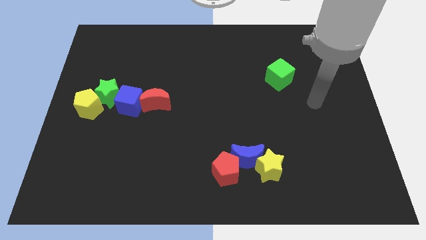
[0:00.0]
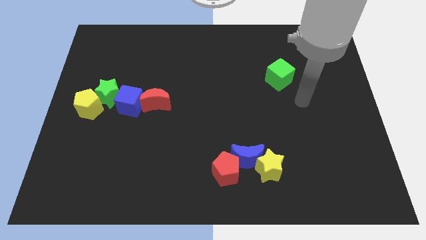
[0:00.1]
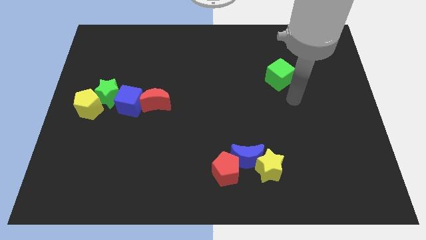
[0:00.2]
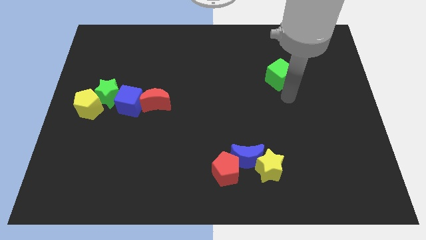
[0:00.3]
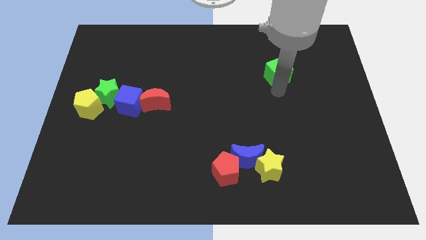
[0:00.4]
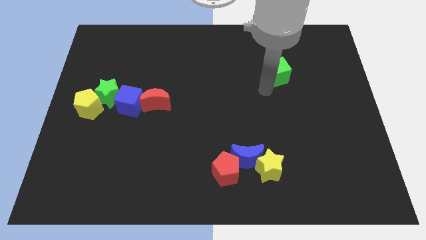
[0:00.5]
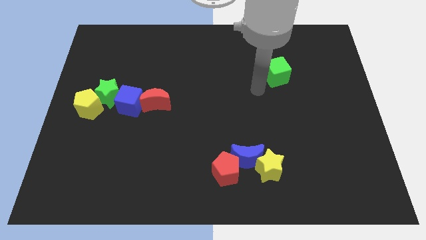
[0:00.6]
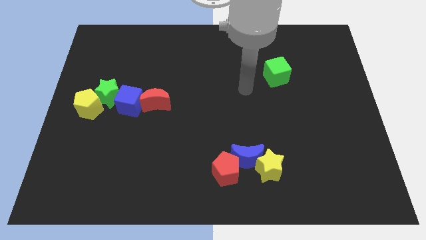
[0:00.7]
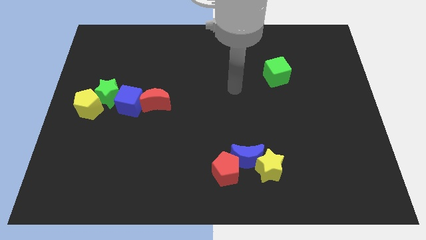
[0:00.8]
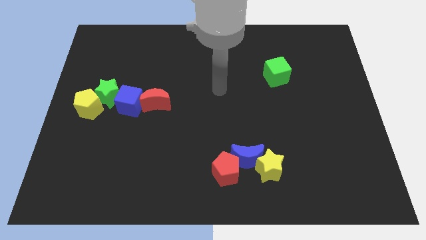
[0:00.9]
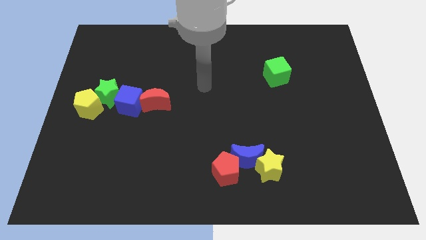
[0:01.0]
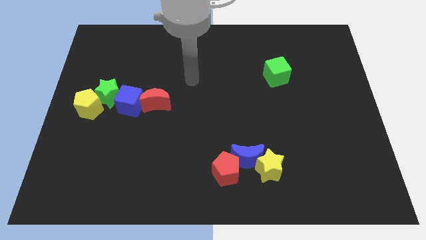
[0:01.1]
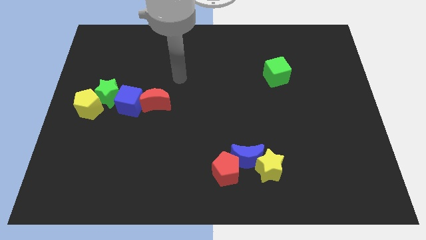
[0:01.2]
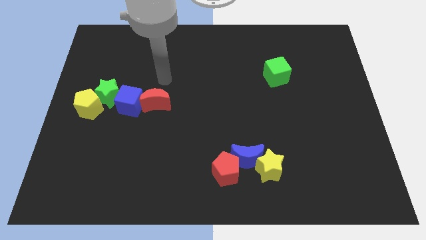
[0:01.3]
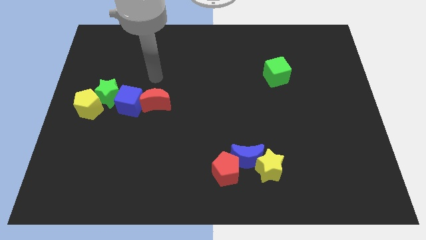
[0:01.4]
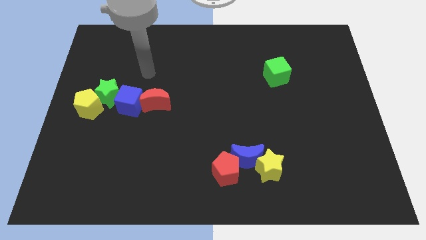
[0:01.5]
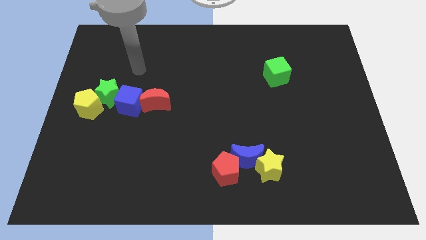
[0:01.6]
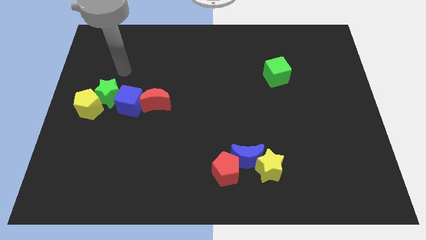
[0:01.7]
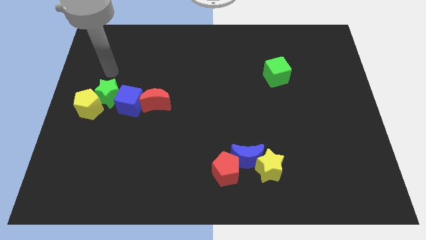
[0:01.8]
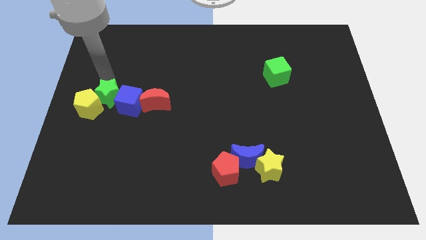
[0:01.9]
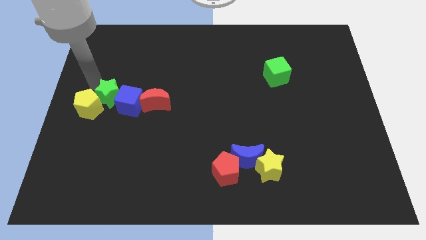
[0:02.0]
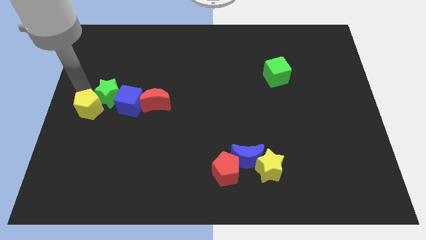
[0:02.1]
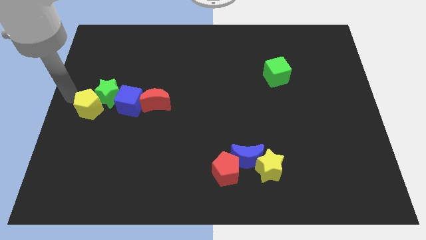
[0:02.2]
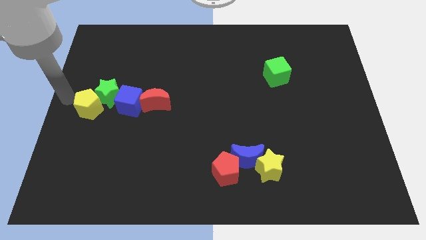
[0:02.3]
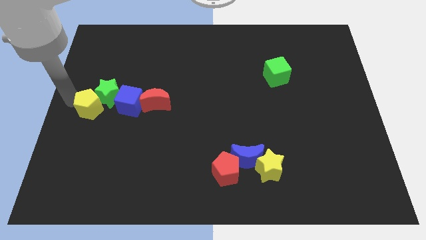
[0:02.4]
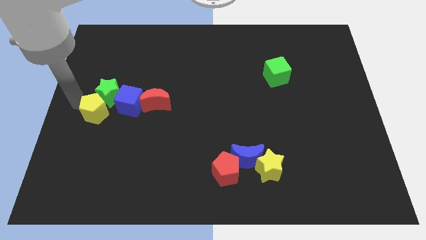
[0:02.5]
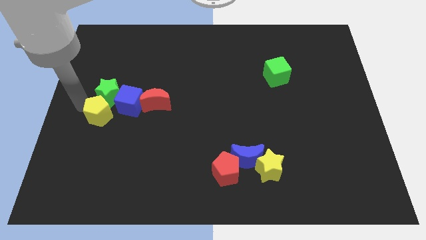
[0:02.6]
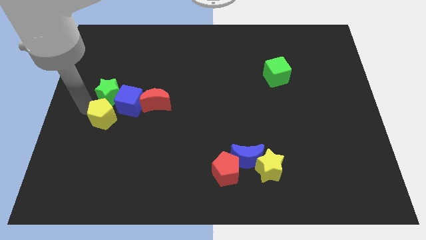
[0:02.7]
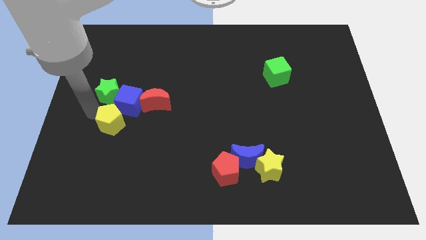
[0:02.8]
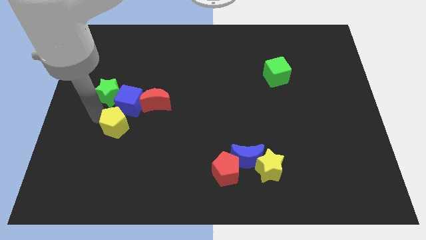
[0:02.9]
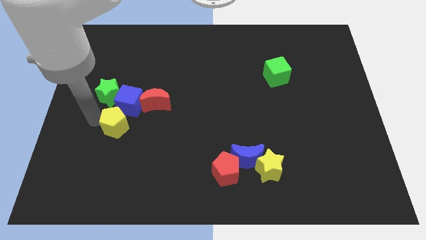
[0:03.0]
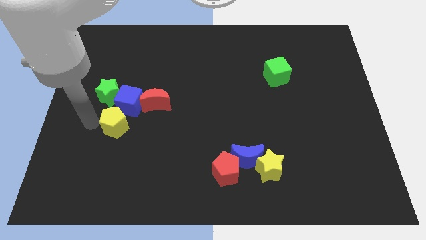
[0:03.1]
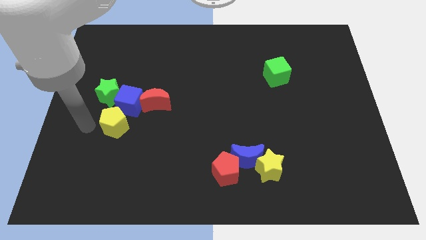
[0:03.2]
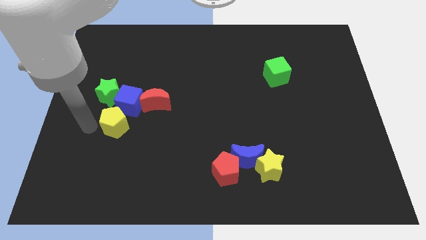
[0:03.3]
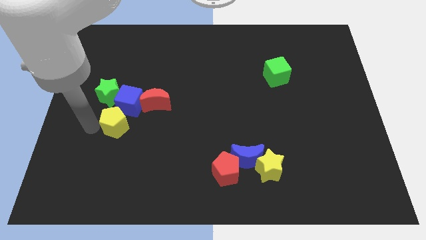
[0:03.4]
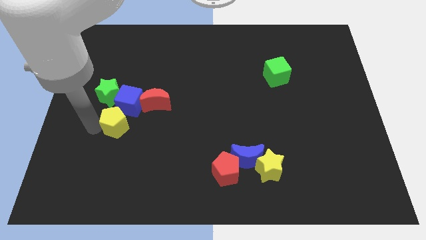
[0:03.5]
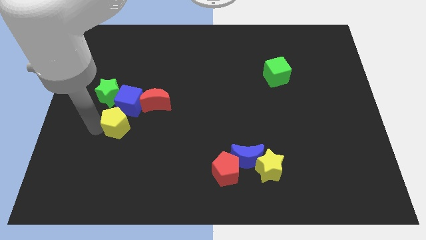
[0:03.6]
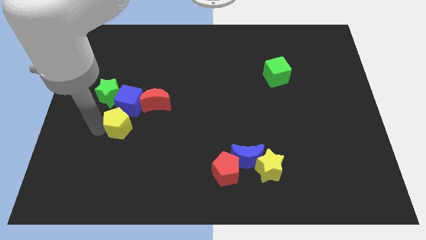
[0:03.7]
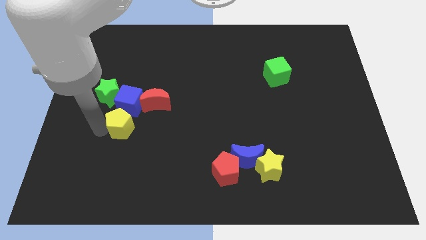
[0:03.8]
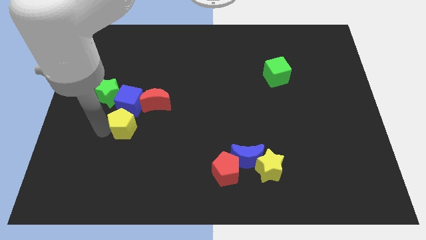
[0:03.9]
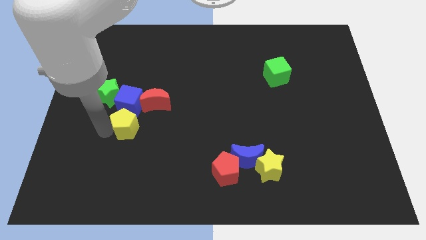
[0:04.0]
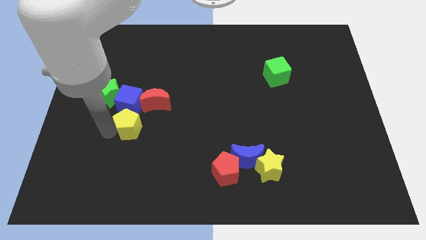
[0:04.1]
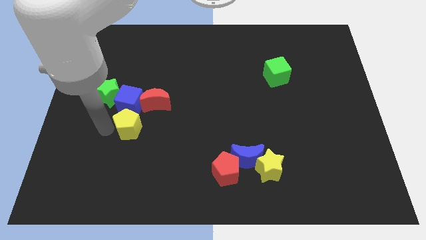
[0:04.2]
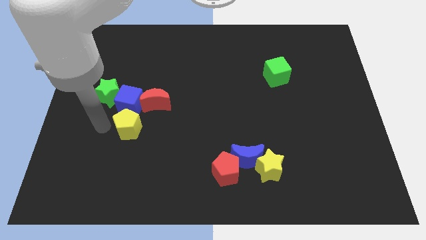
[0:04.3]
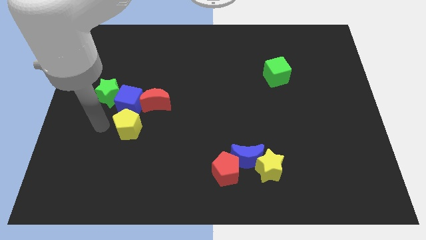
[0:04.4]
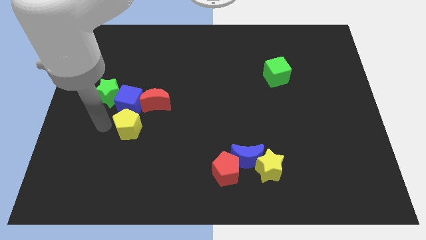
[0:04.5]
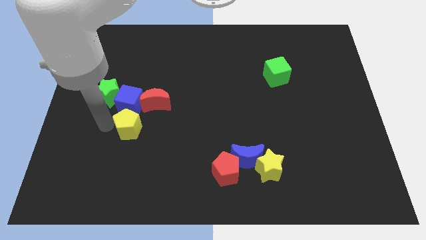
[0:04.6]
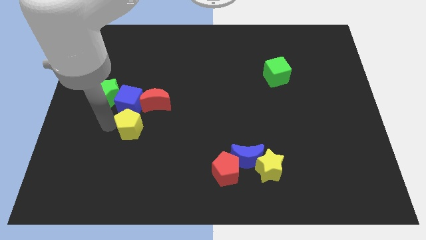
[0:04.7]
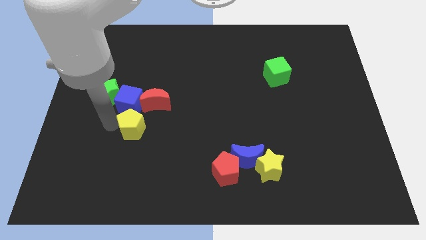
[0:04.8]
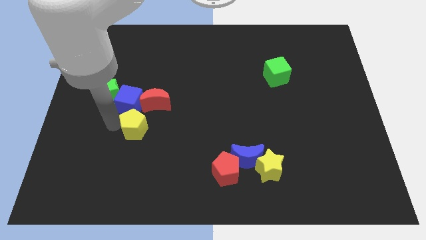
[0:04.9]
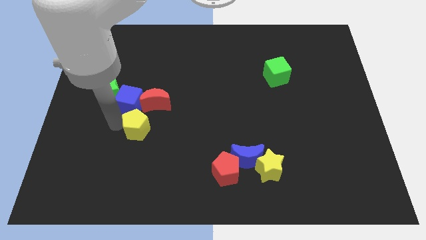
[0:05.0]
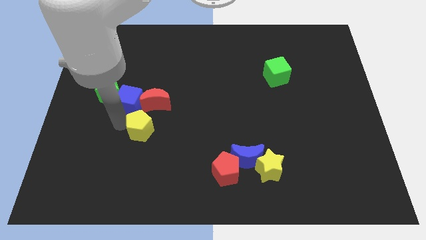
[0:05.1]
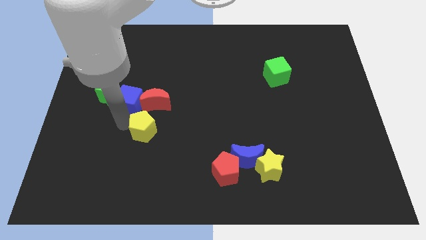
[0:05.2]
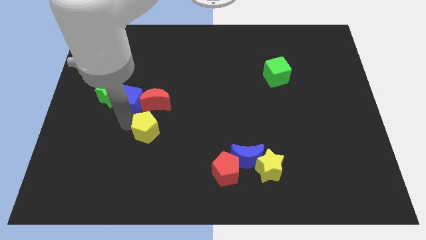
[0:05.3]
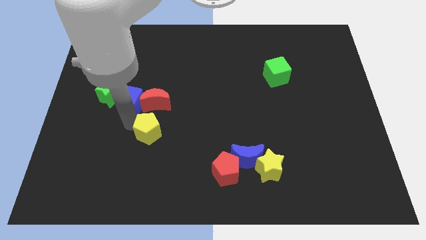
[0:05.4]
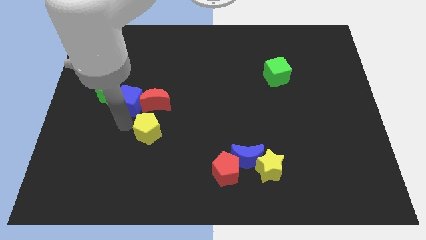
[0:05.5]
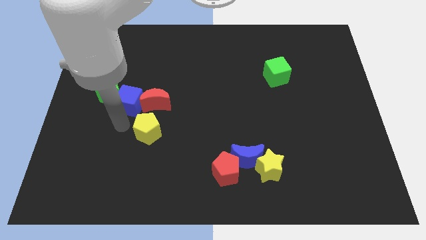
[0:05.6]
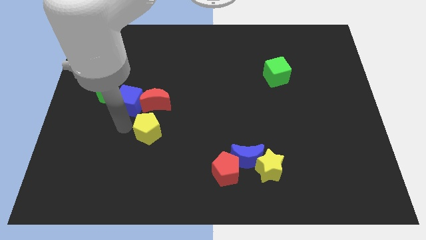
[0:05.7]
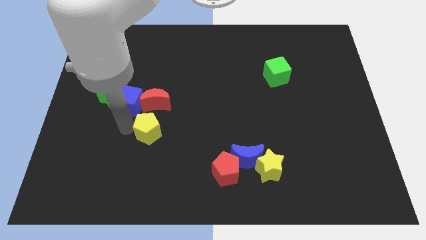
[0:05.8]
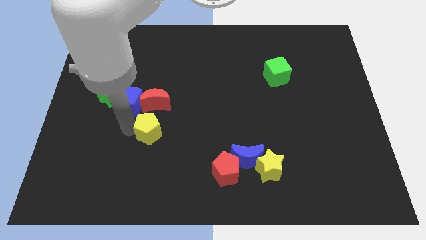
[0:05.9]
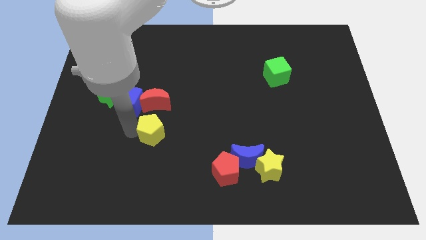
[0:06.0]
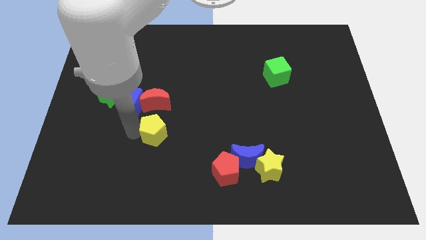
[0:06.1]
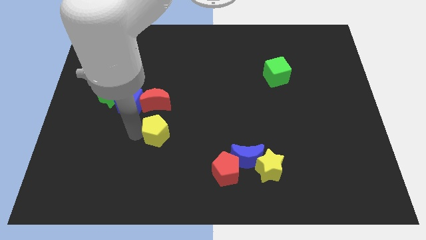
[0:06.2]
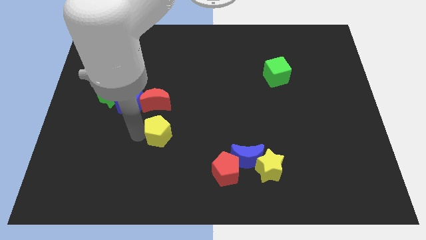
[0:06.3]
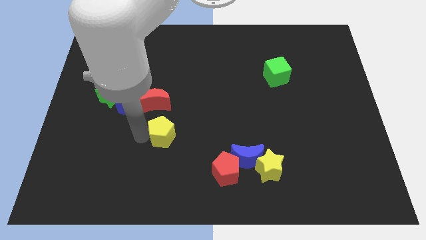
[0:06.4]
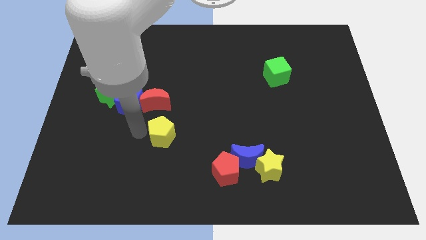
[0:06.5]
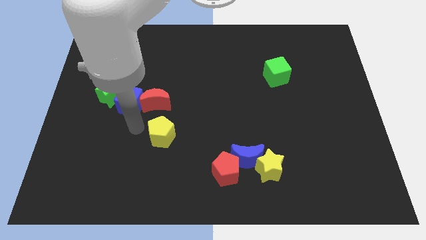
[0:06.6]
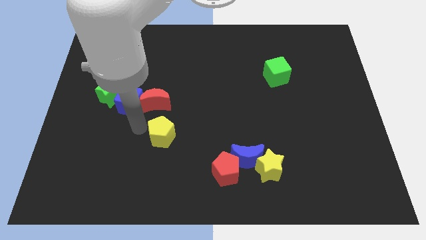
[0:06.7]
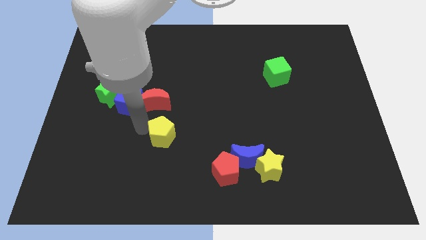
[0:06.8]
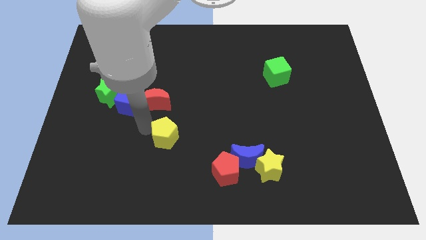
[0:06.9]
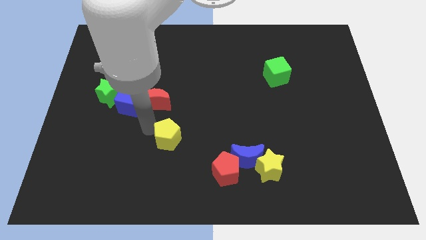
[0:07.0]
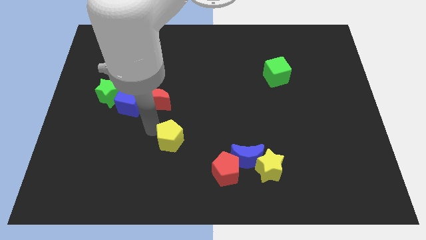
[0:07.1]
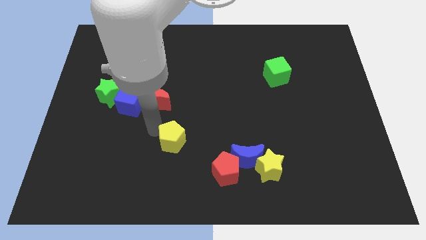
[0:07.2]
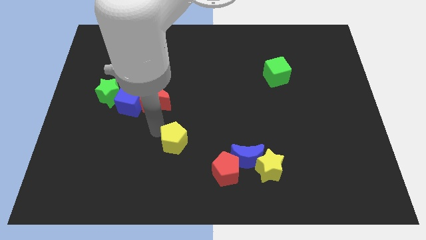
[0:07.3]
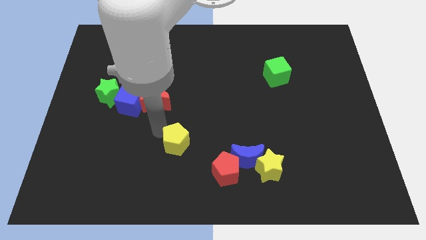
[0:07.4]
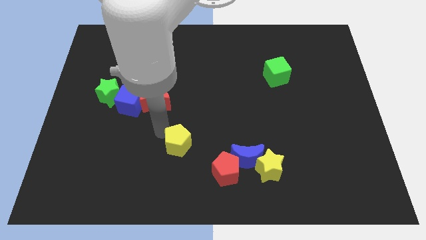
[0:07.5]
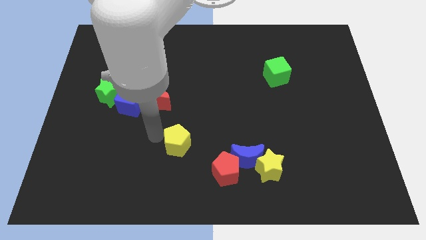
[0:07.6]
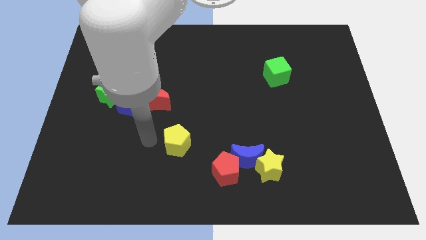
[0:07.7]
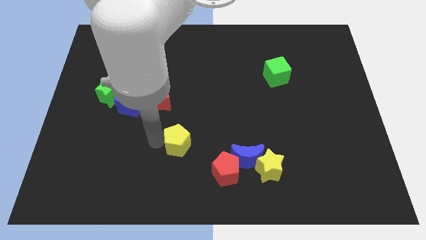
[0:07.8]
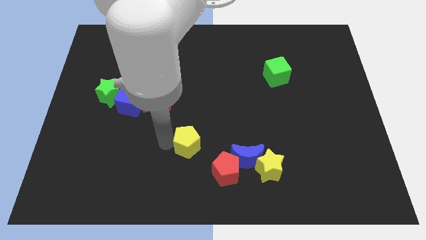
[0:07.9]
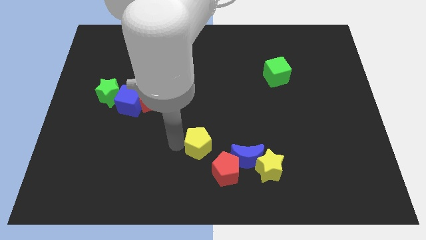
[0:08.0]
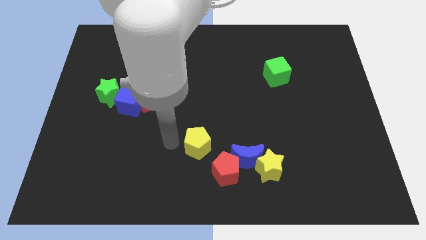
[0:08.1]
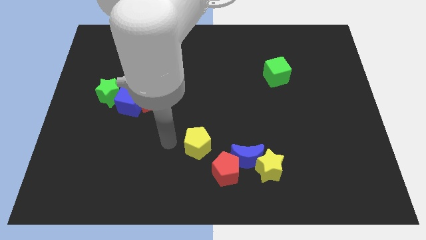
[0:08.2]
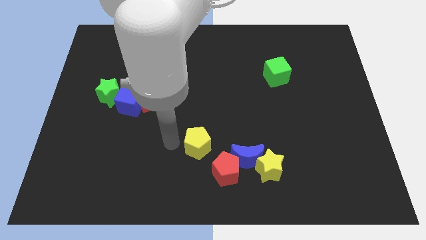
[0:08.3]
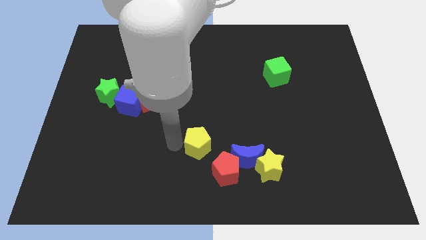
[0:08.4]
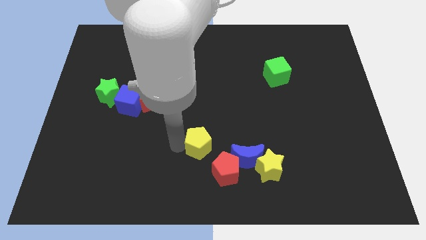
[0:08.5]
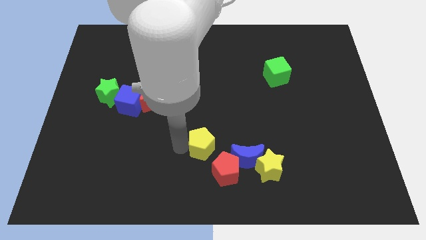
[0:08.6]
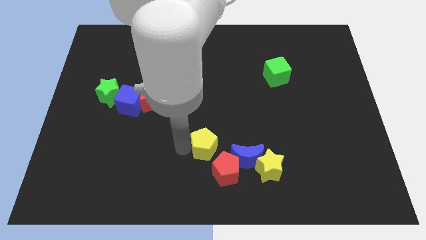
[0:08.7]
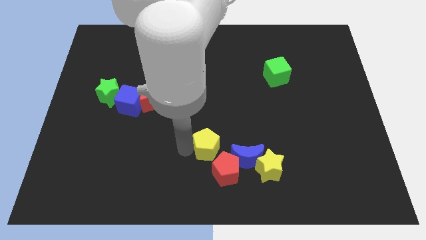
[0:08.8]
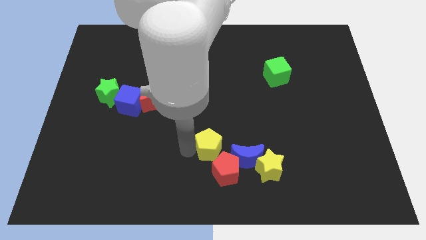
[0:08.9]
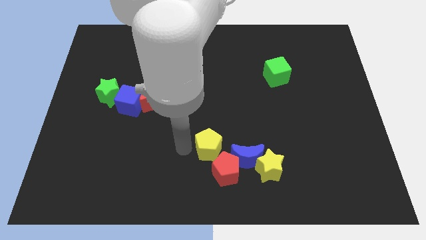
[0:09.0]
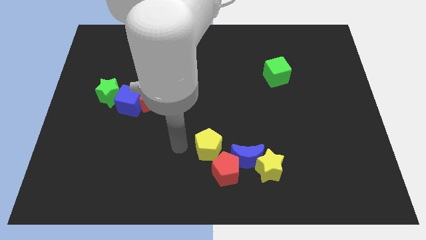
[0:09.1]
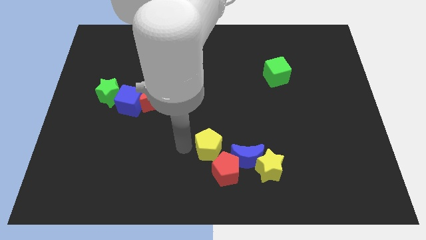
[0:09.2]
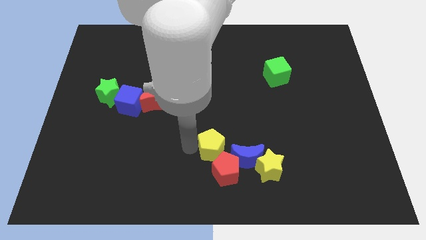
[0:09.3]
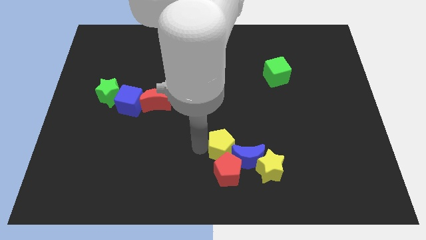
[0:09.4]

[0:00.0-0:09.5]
move the yellow pentagon next to the blue moon
